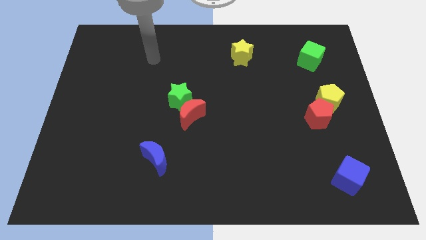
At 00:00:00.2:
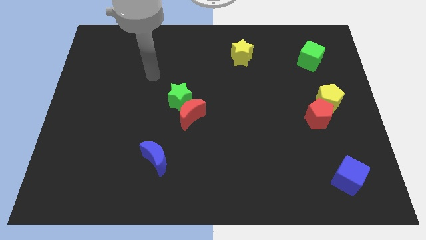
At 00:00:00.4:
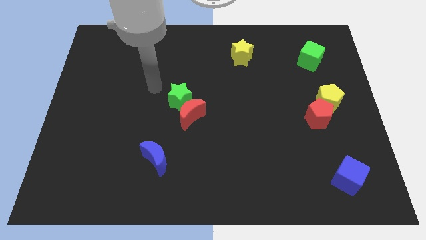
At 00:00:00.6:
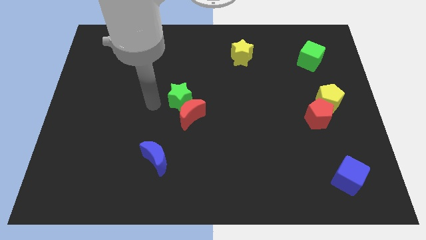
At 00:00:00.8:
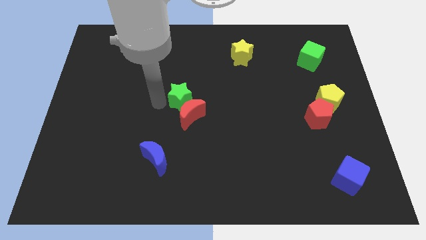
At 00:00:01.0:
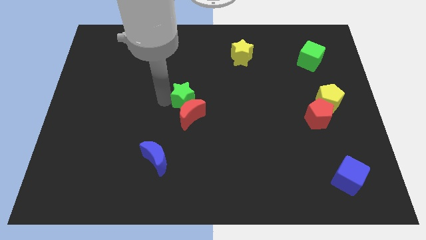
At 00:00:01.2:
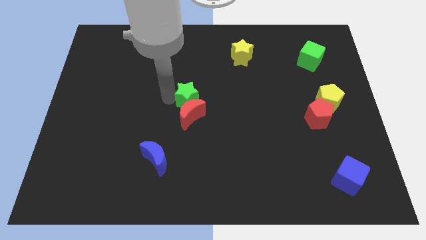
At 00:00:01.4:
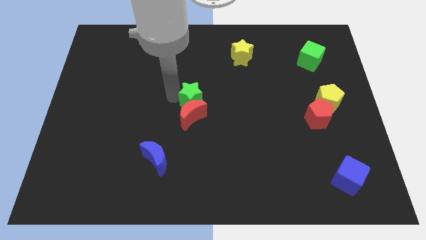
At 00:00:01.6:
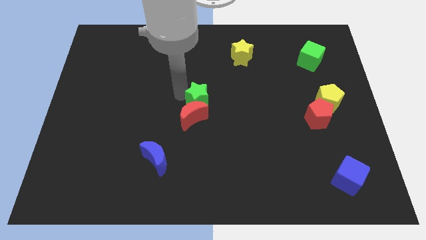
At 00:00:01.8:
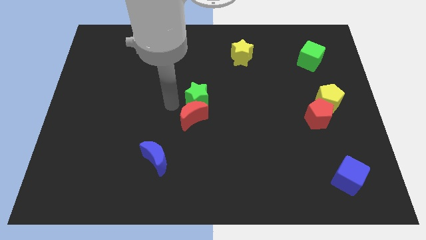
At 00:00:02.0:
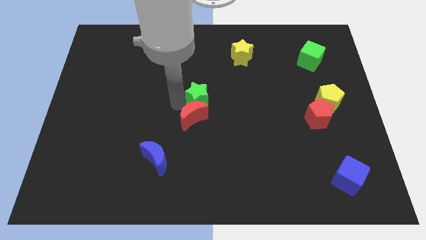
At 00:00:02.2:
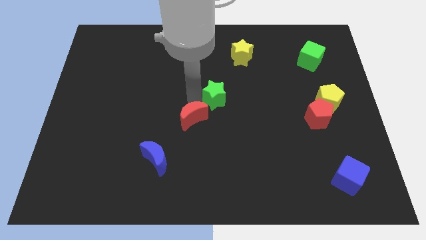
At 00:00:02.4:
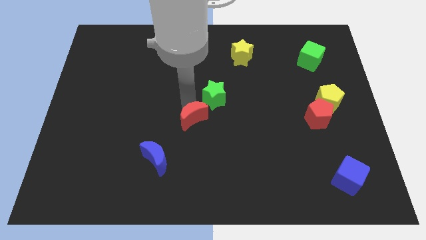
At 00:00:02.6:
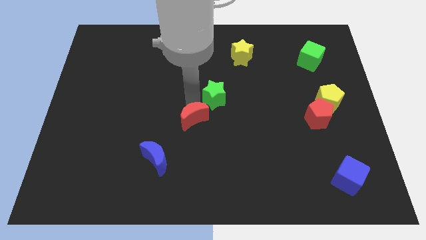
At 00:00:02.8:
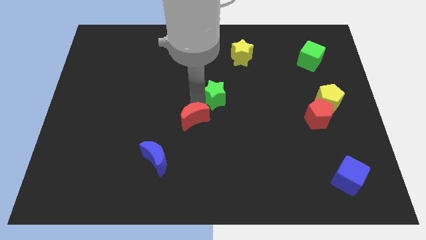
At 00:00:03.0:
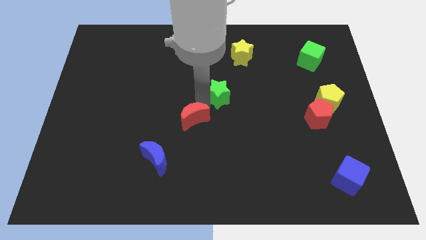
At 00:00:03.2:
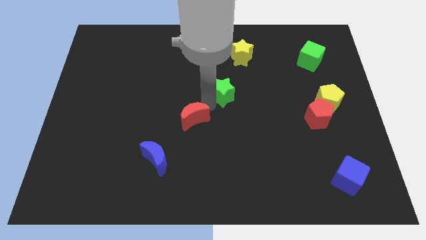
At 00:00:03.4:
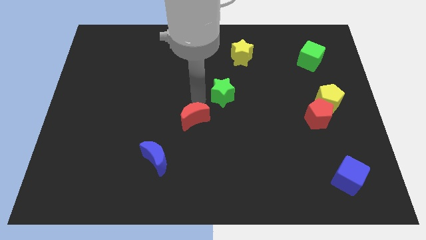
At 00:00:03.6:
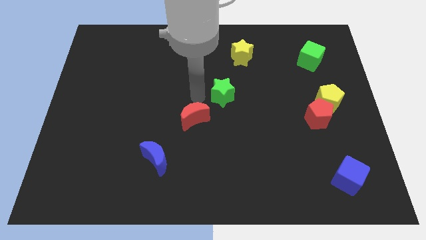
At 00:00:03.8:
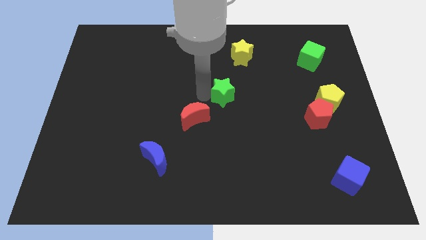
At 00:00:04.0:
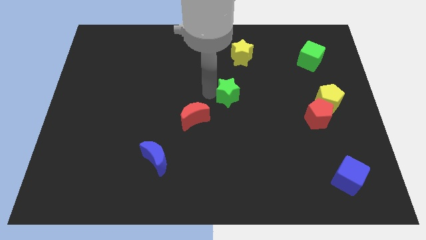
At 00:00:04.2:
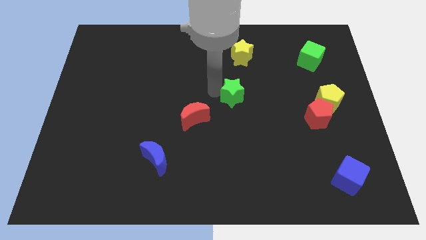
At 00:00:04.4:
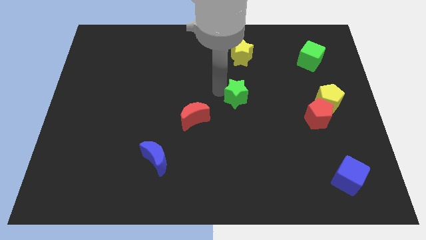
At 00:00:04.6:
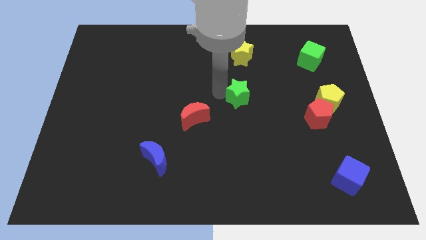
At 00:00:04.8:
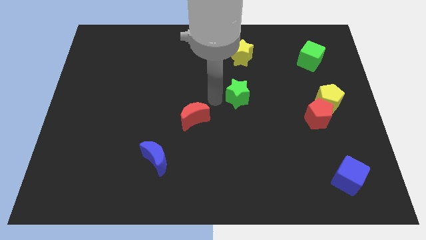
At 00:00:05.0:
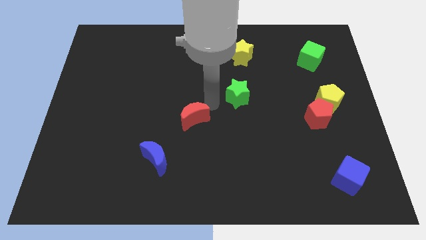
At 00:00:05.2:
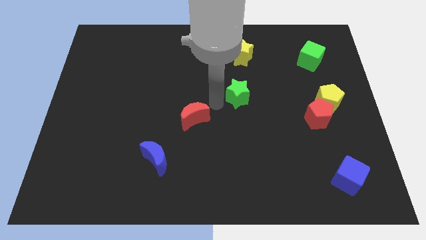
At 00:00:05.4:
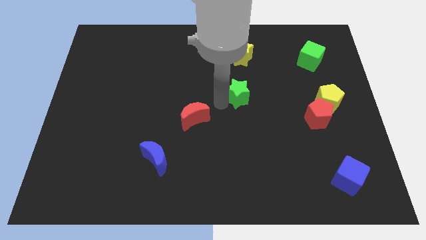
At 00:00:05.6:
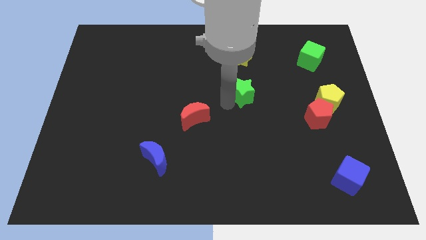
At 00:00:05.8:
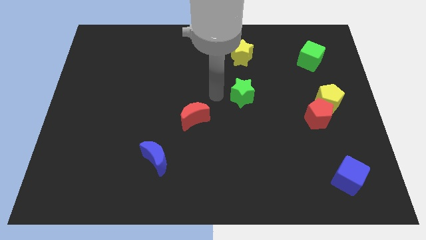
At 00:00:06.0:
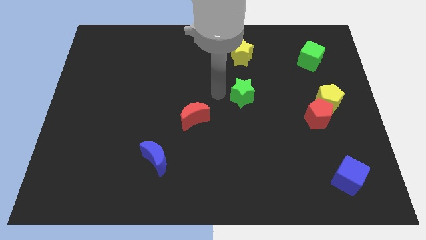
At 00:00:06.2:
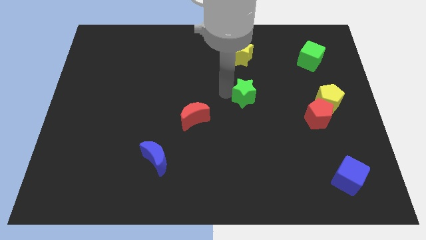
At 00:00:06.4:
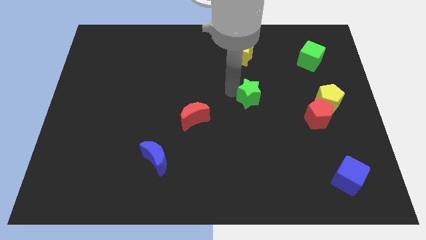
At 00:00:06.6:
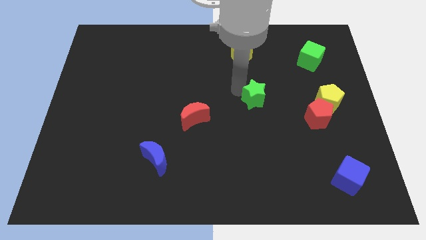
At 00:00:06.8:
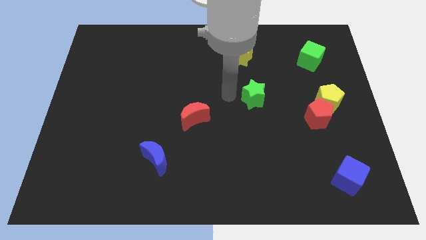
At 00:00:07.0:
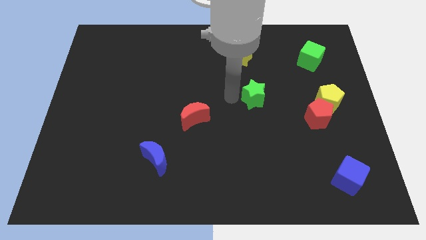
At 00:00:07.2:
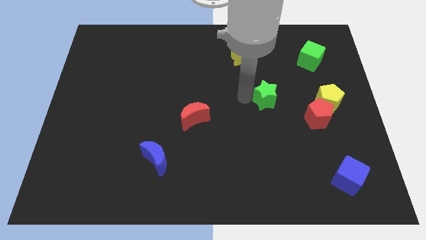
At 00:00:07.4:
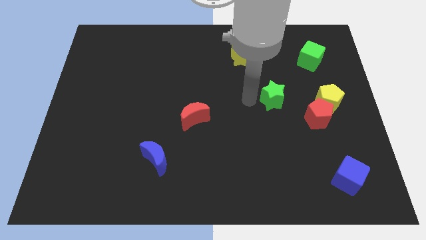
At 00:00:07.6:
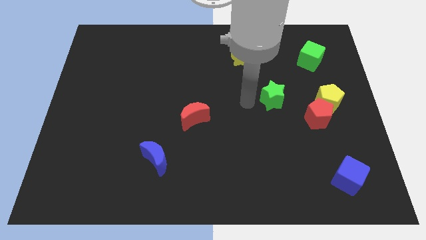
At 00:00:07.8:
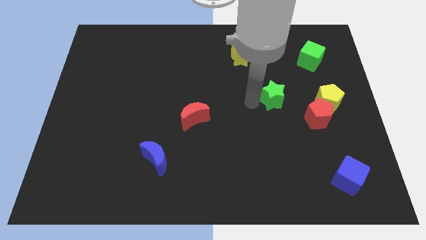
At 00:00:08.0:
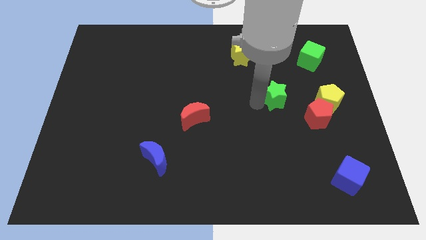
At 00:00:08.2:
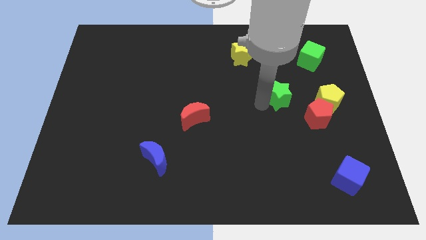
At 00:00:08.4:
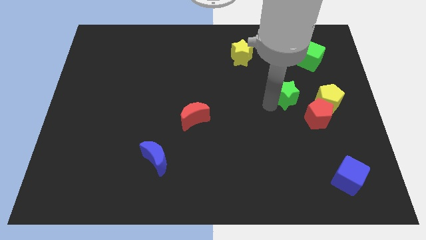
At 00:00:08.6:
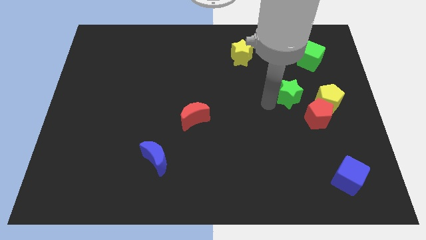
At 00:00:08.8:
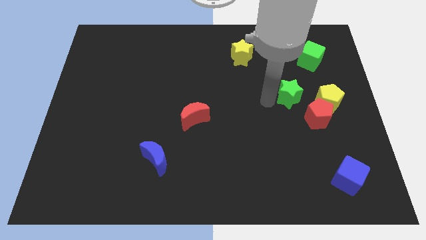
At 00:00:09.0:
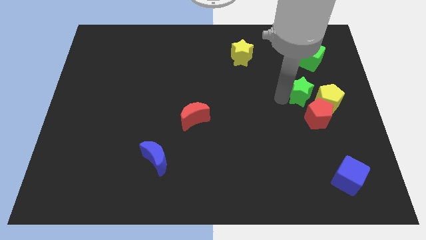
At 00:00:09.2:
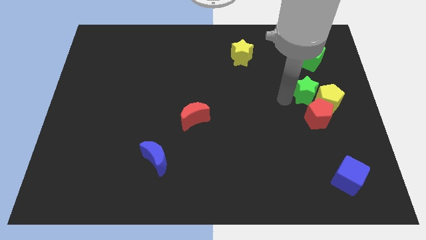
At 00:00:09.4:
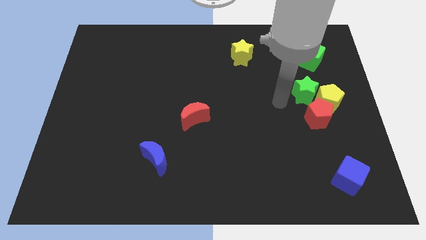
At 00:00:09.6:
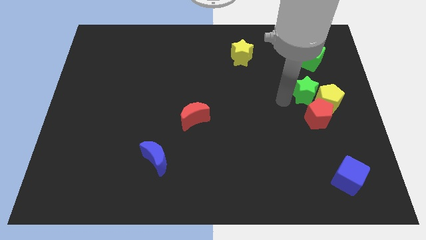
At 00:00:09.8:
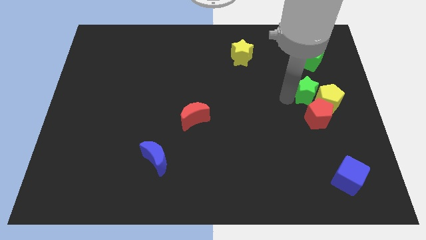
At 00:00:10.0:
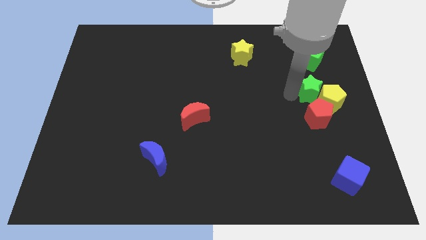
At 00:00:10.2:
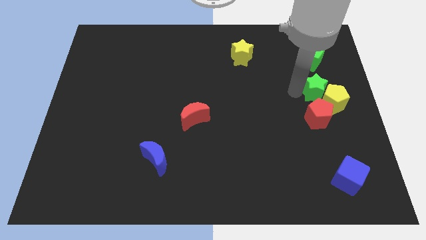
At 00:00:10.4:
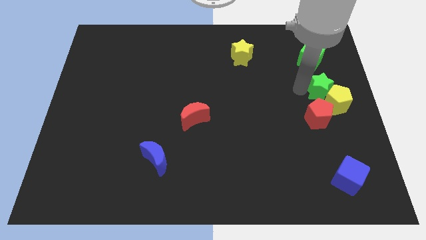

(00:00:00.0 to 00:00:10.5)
push the green star to the right side of the board
